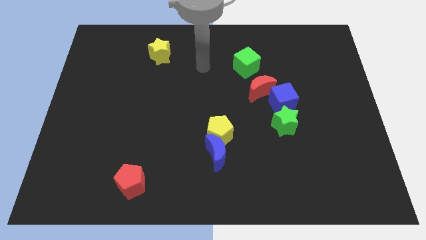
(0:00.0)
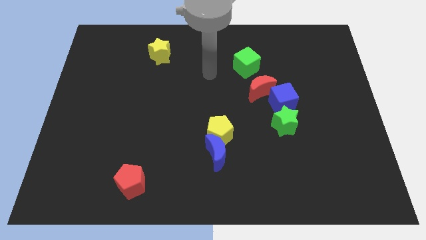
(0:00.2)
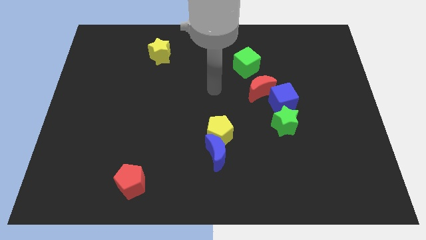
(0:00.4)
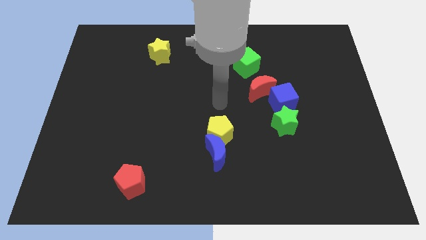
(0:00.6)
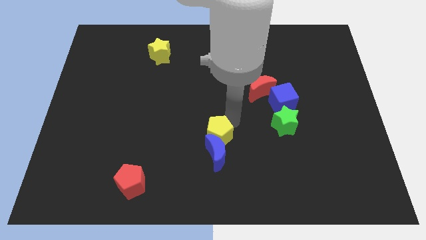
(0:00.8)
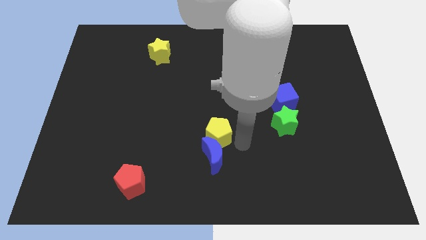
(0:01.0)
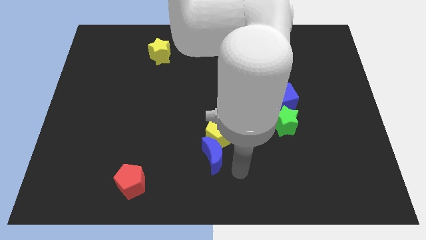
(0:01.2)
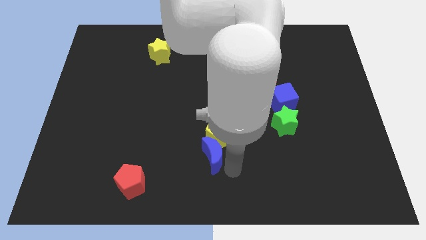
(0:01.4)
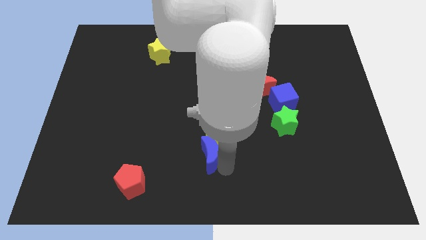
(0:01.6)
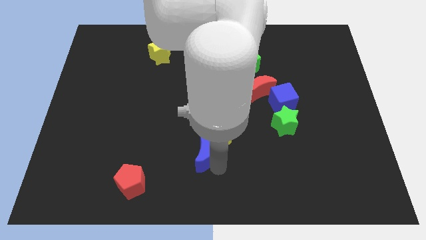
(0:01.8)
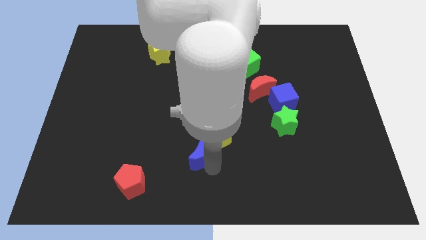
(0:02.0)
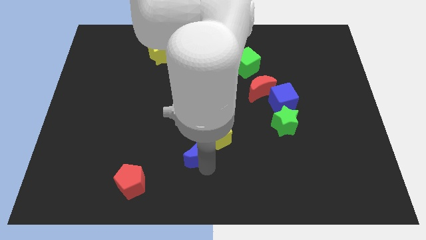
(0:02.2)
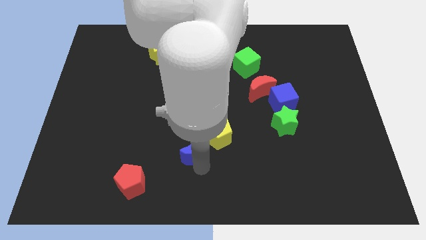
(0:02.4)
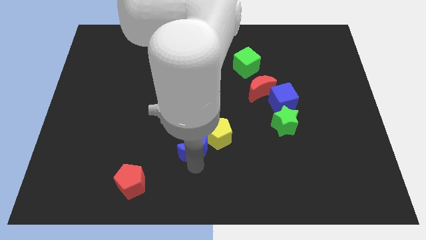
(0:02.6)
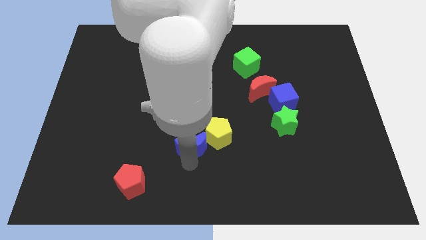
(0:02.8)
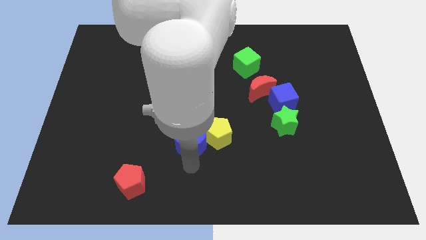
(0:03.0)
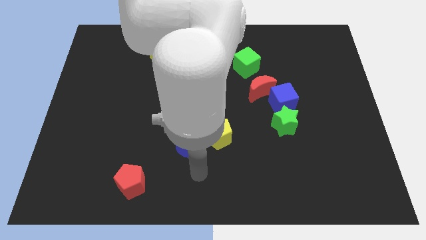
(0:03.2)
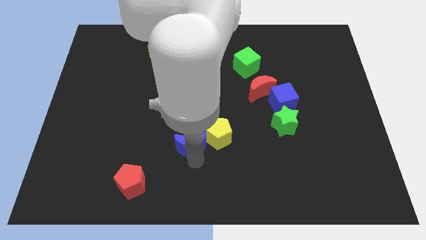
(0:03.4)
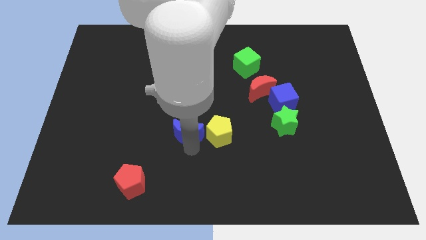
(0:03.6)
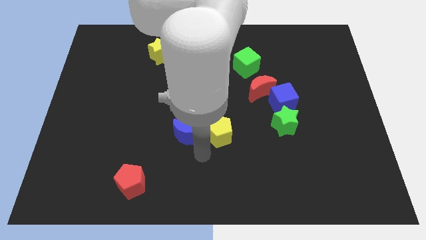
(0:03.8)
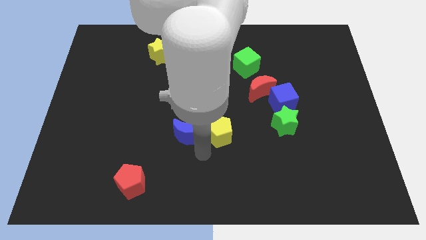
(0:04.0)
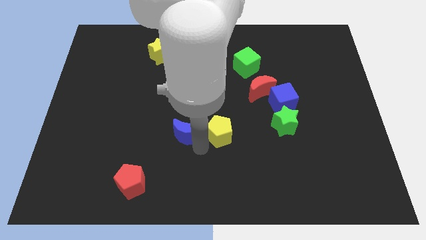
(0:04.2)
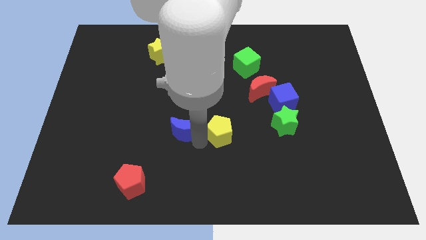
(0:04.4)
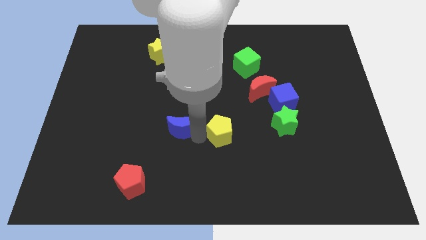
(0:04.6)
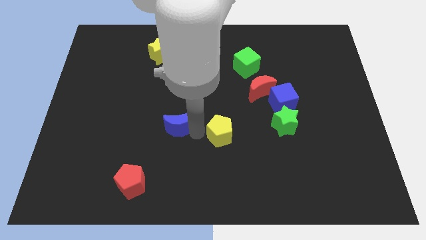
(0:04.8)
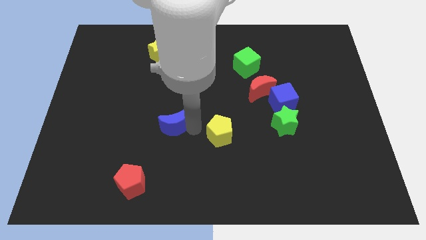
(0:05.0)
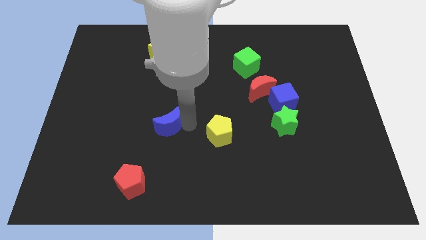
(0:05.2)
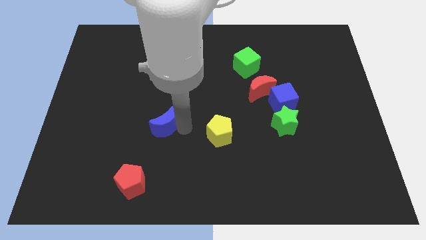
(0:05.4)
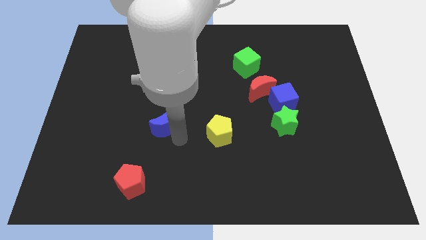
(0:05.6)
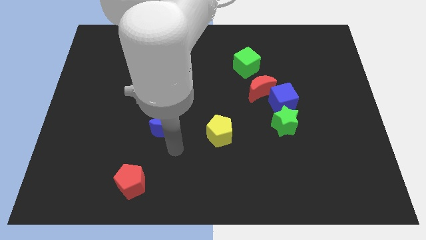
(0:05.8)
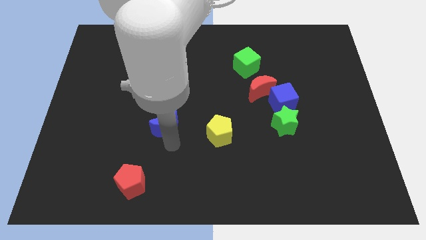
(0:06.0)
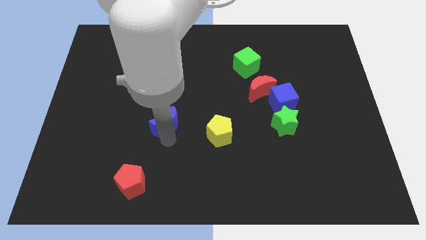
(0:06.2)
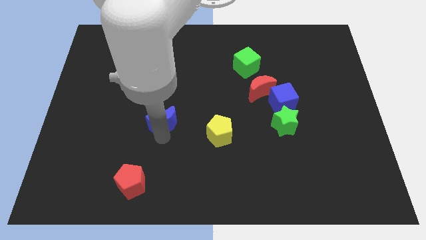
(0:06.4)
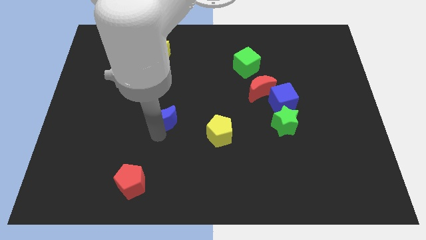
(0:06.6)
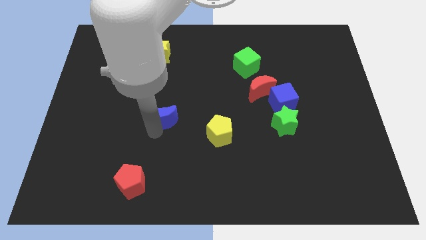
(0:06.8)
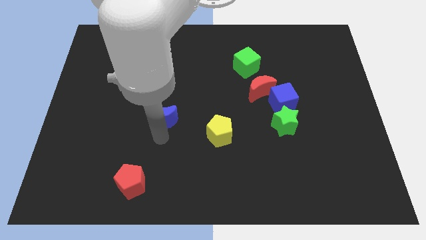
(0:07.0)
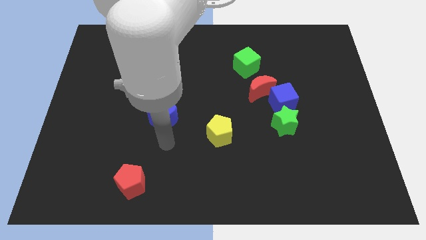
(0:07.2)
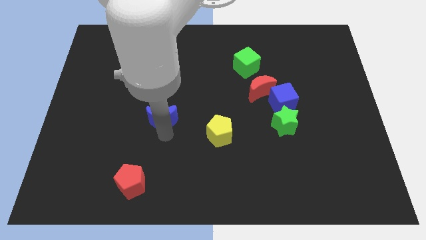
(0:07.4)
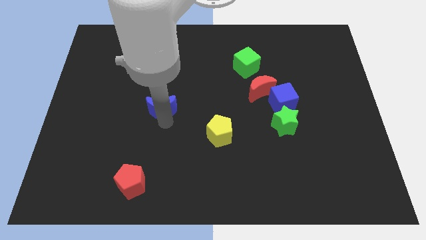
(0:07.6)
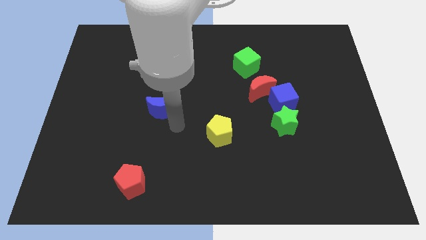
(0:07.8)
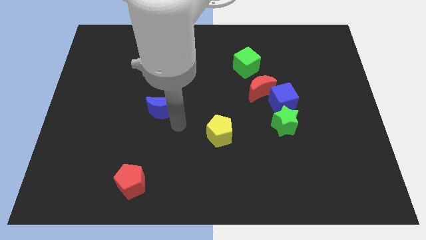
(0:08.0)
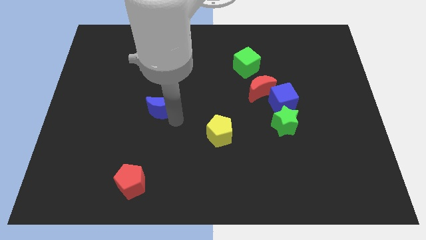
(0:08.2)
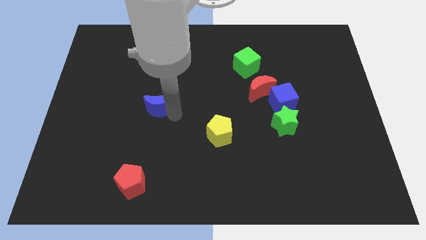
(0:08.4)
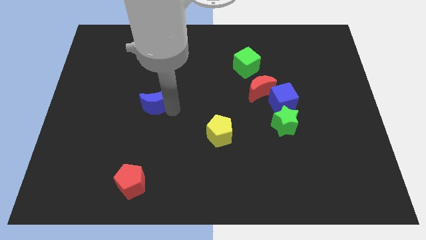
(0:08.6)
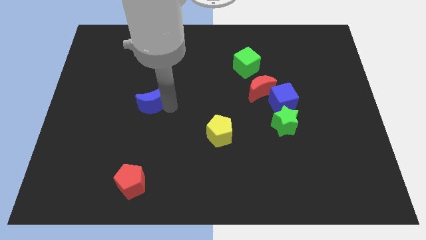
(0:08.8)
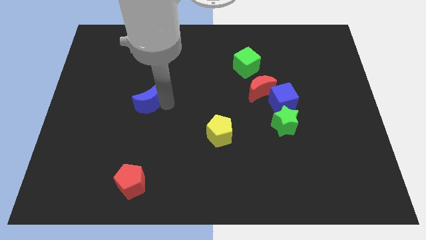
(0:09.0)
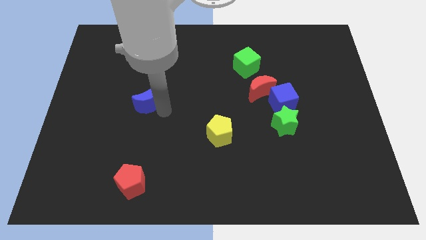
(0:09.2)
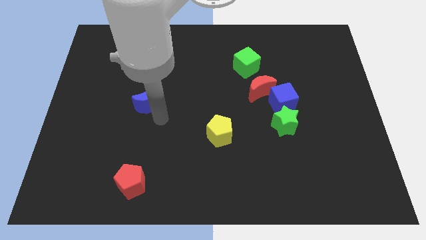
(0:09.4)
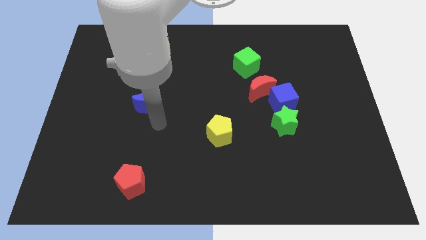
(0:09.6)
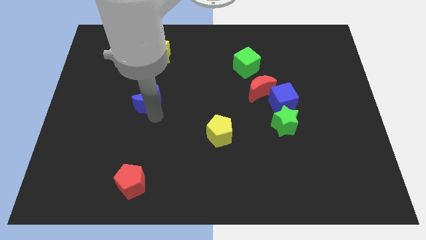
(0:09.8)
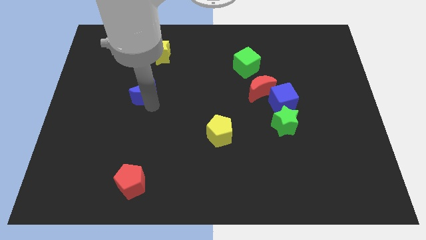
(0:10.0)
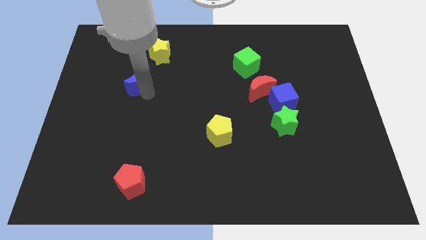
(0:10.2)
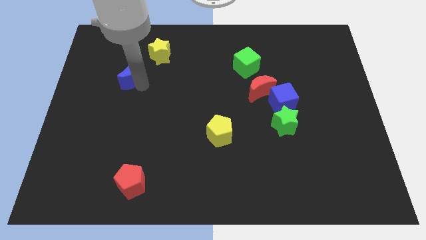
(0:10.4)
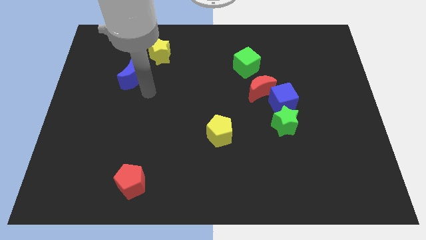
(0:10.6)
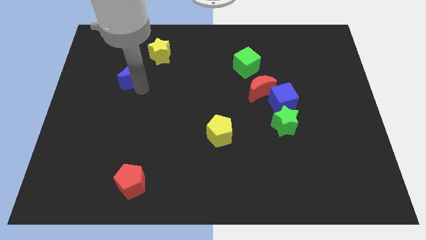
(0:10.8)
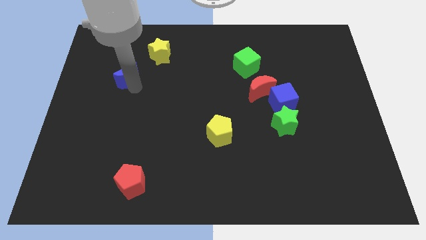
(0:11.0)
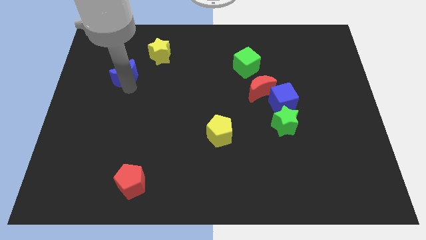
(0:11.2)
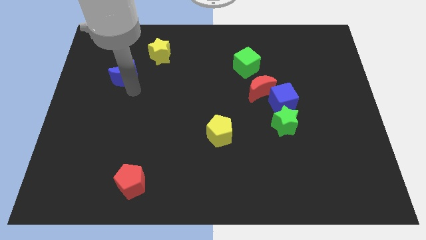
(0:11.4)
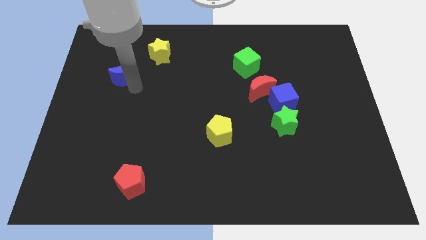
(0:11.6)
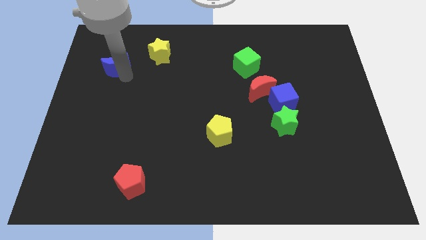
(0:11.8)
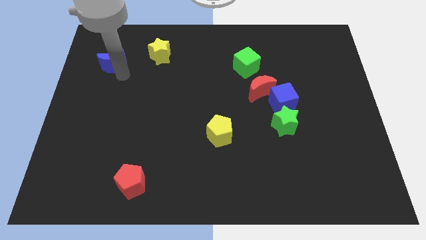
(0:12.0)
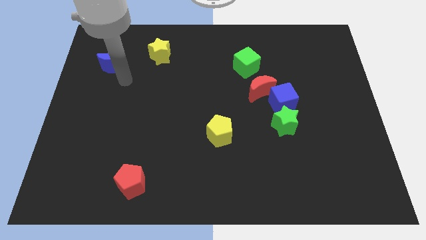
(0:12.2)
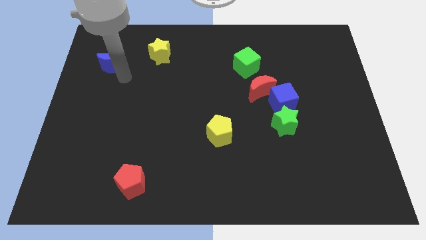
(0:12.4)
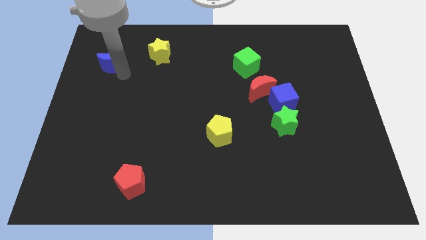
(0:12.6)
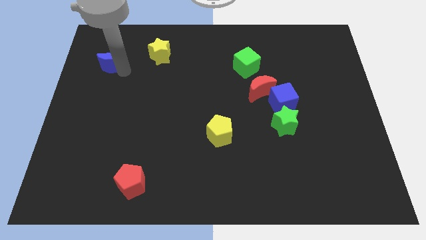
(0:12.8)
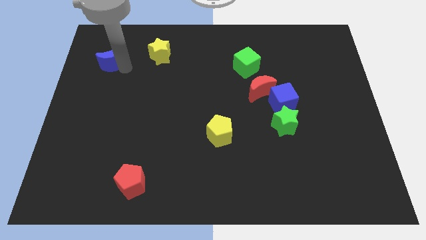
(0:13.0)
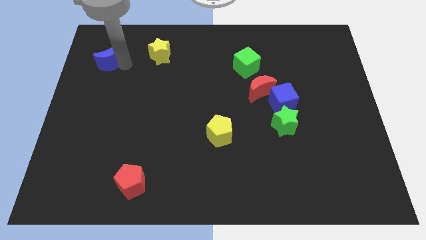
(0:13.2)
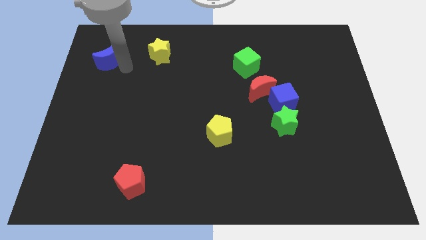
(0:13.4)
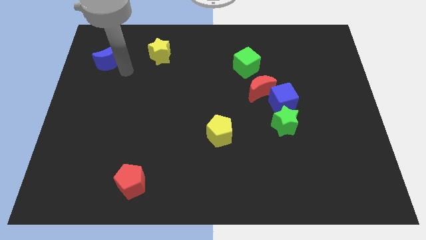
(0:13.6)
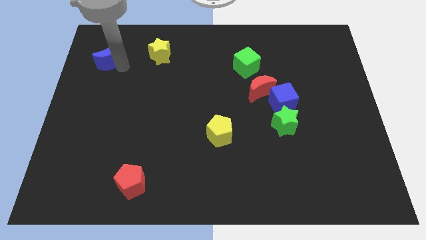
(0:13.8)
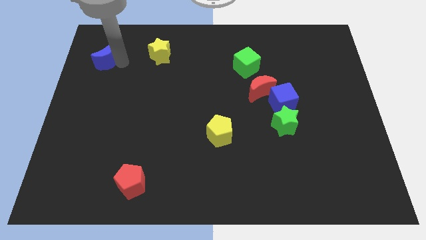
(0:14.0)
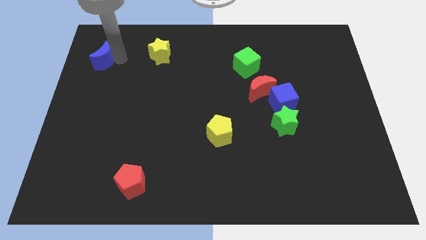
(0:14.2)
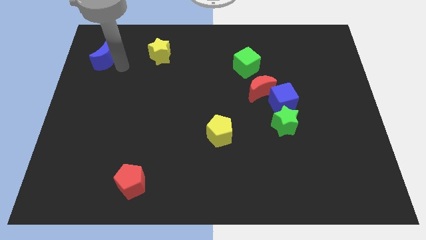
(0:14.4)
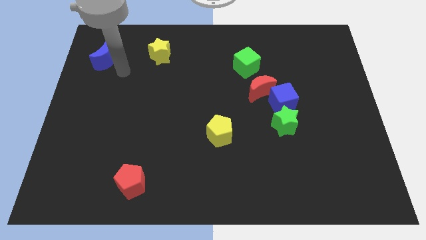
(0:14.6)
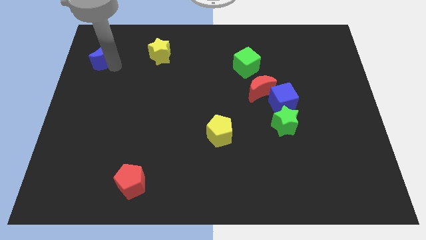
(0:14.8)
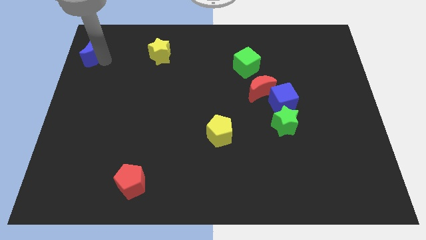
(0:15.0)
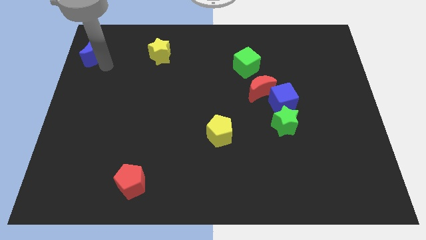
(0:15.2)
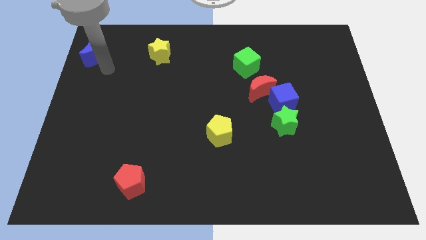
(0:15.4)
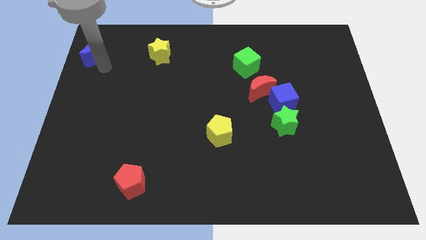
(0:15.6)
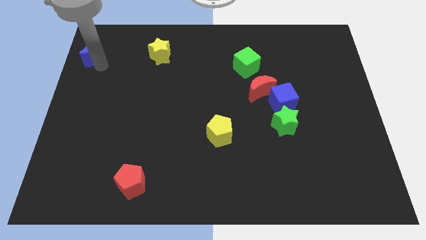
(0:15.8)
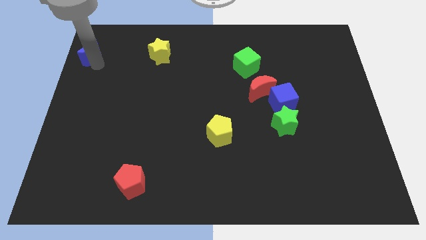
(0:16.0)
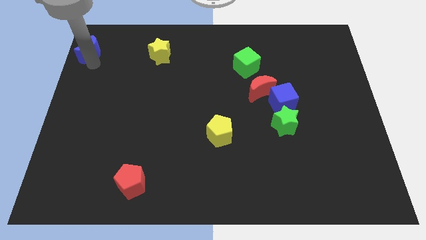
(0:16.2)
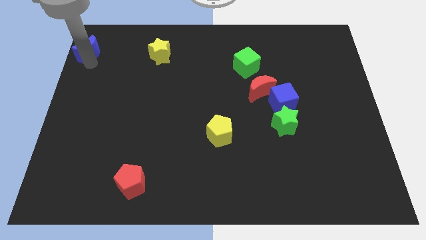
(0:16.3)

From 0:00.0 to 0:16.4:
put the blue moon to the upper left corner
